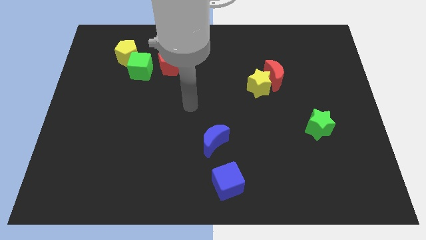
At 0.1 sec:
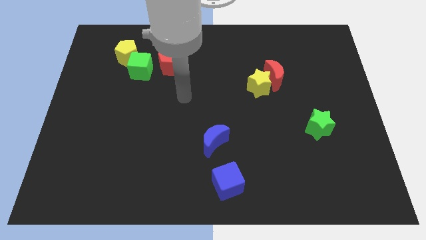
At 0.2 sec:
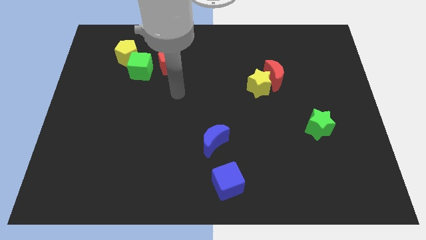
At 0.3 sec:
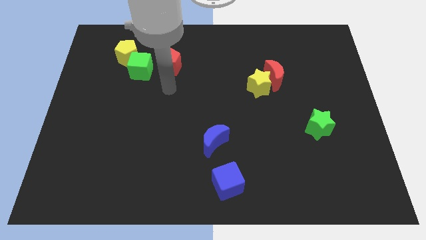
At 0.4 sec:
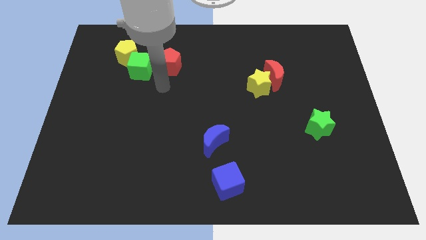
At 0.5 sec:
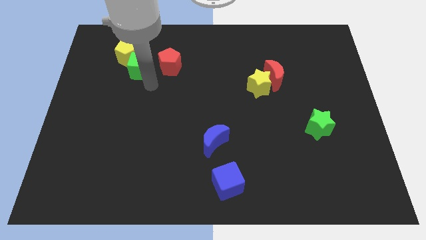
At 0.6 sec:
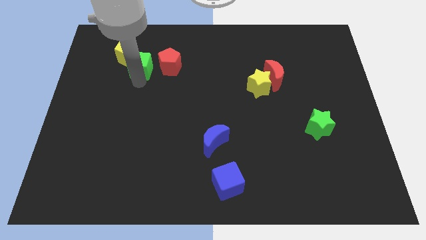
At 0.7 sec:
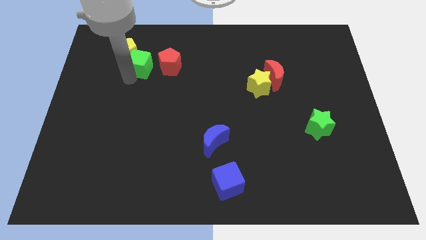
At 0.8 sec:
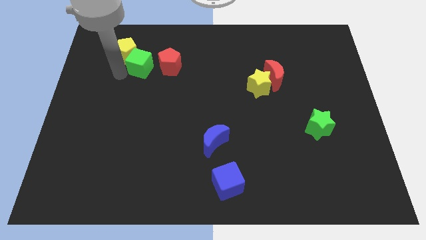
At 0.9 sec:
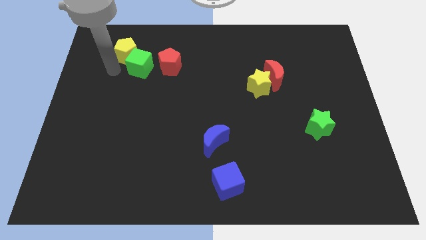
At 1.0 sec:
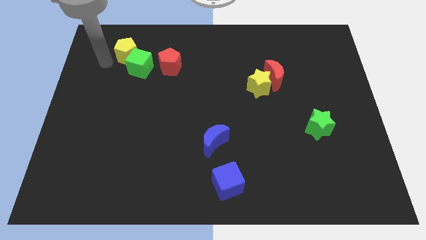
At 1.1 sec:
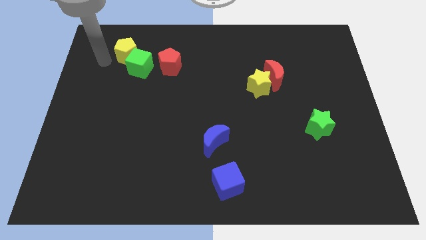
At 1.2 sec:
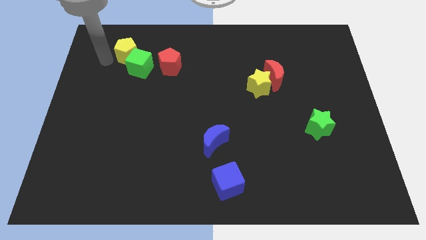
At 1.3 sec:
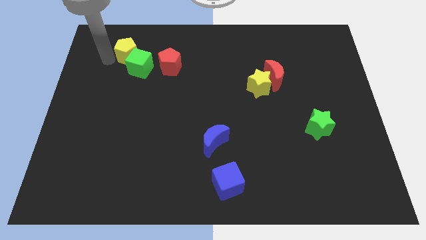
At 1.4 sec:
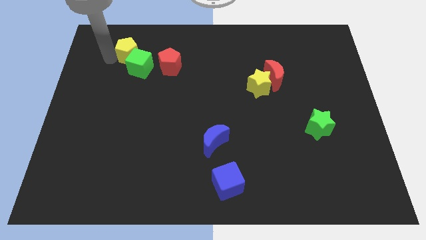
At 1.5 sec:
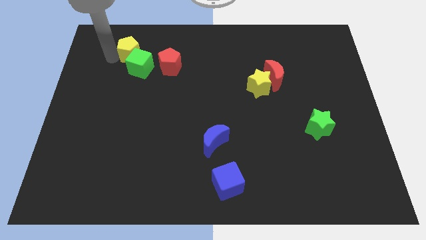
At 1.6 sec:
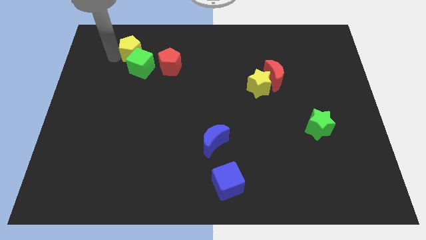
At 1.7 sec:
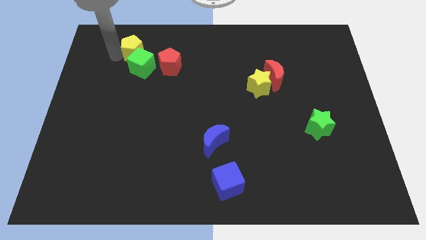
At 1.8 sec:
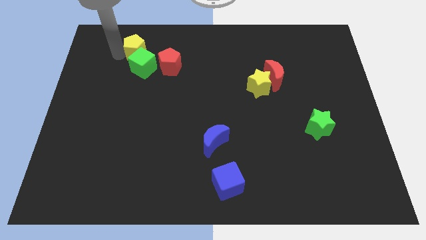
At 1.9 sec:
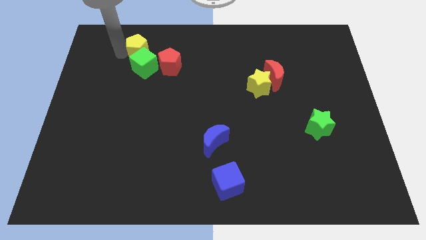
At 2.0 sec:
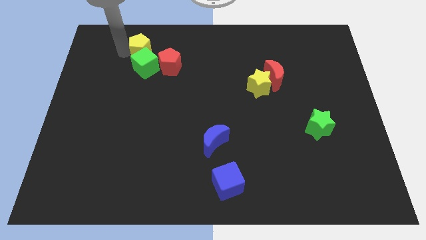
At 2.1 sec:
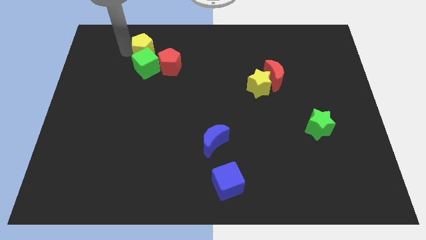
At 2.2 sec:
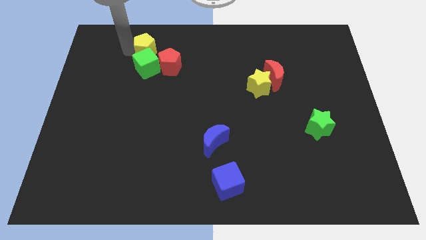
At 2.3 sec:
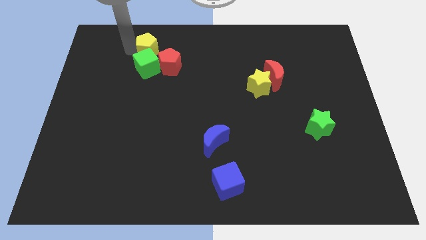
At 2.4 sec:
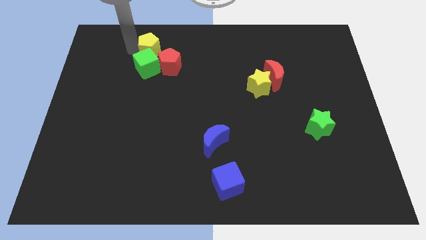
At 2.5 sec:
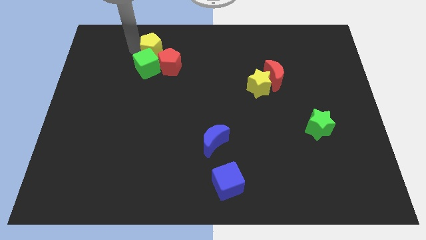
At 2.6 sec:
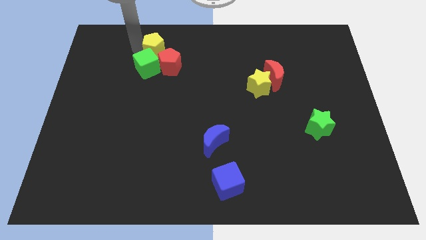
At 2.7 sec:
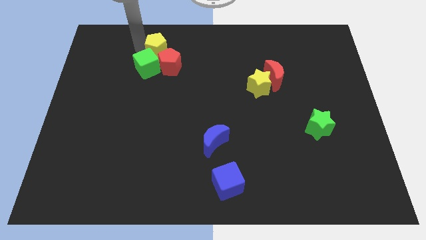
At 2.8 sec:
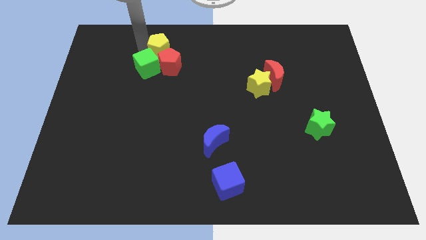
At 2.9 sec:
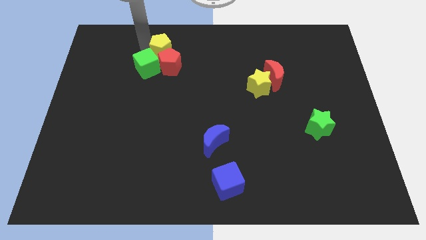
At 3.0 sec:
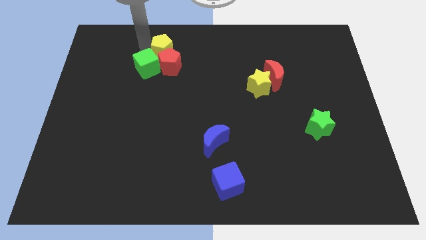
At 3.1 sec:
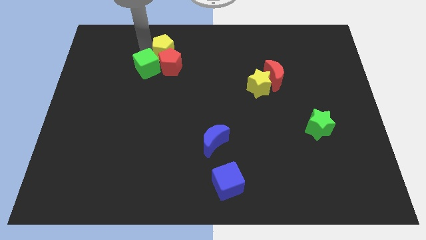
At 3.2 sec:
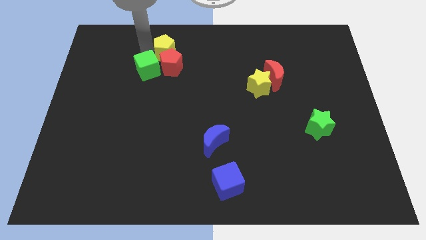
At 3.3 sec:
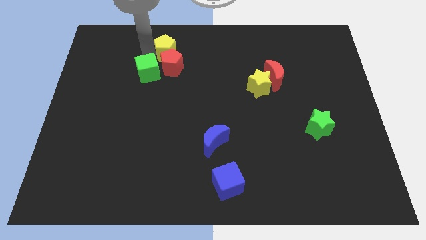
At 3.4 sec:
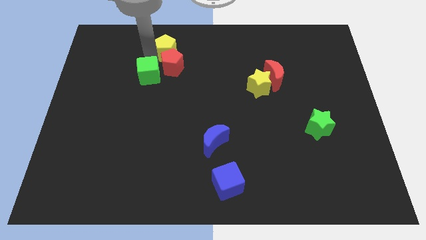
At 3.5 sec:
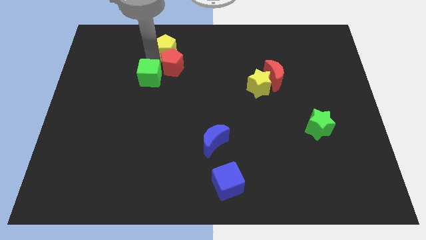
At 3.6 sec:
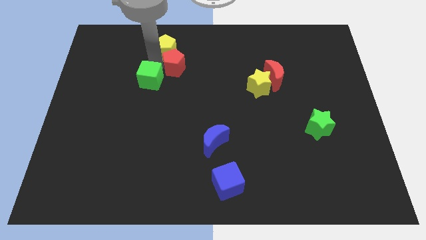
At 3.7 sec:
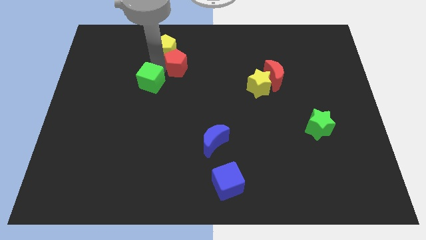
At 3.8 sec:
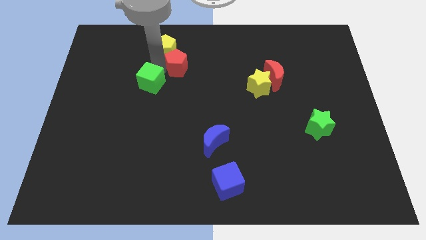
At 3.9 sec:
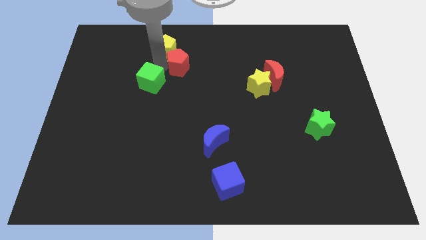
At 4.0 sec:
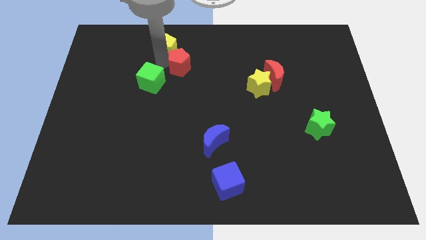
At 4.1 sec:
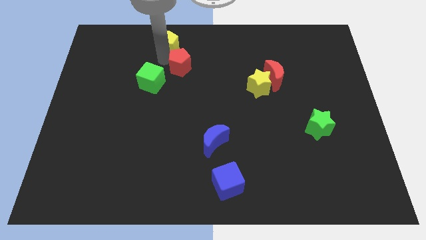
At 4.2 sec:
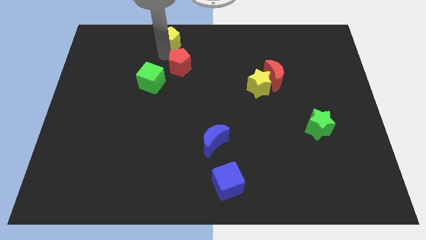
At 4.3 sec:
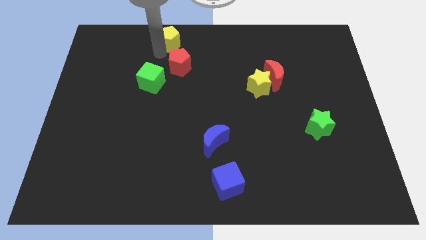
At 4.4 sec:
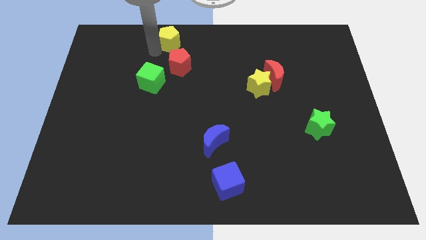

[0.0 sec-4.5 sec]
put the yellow pentagon to the top

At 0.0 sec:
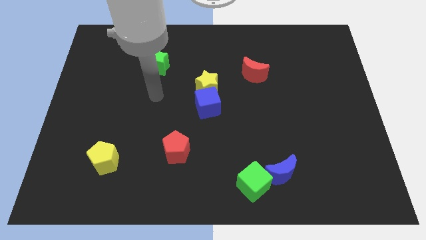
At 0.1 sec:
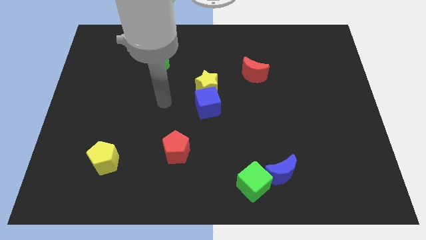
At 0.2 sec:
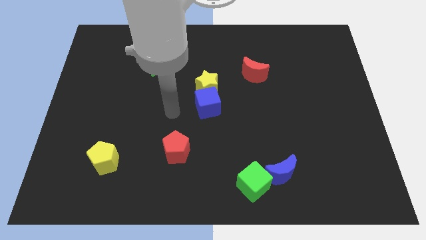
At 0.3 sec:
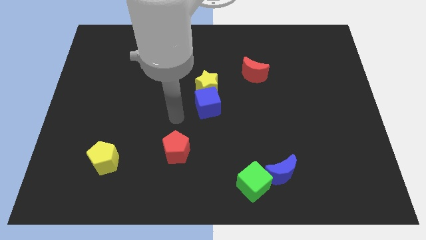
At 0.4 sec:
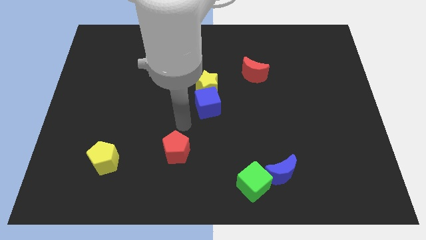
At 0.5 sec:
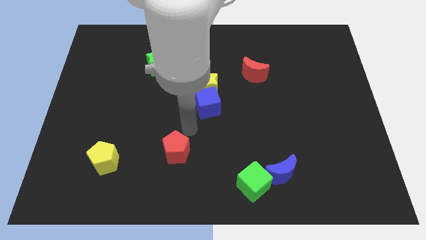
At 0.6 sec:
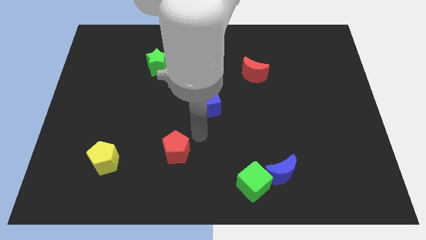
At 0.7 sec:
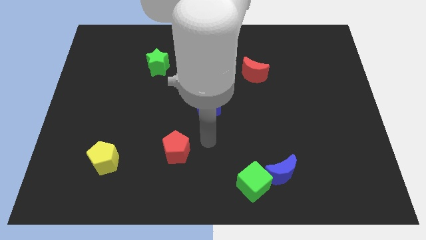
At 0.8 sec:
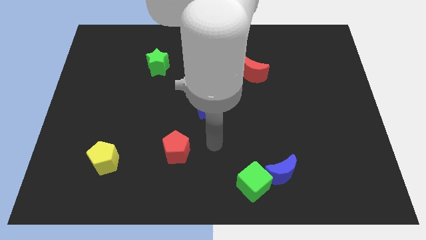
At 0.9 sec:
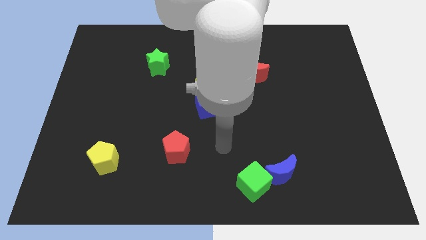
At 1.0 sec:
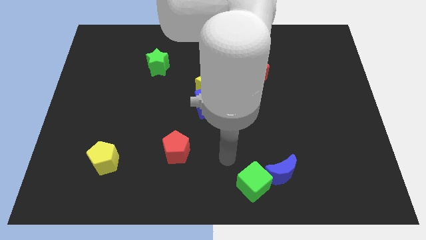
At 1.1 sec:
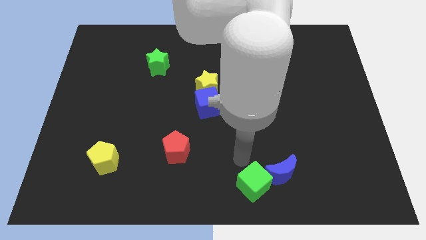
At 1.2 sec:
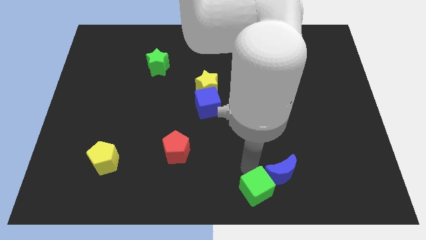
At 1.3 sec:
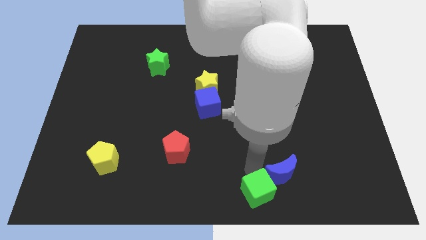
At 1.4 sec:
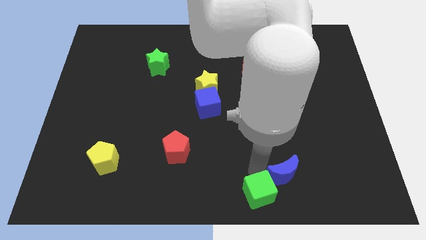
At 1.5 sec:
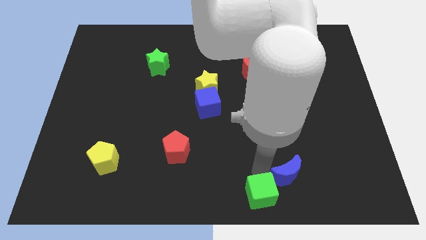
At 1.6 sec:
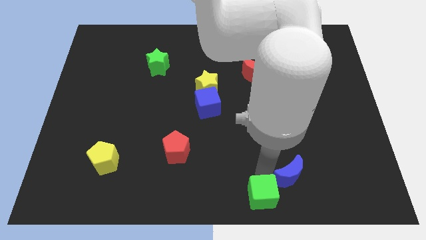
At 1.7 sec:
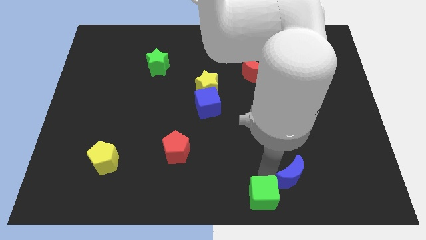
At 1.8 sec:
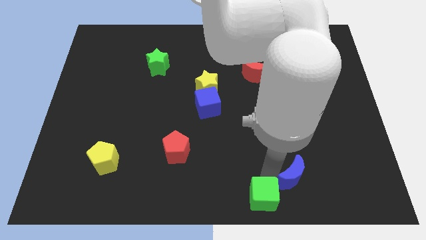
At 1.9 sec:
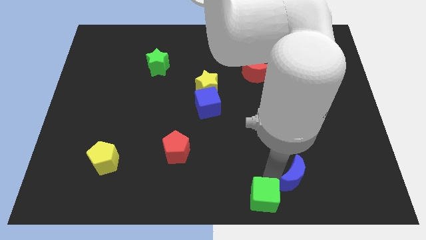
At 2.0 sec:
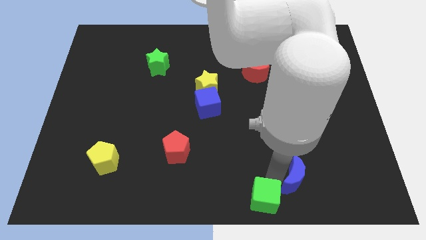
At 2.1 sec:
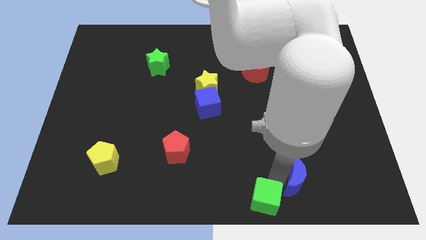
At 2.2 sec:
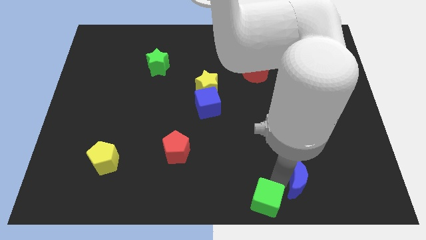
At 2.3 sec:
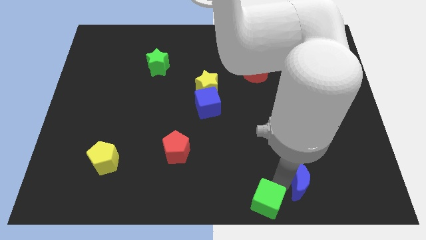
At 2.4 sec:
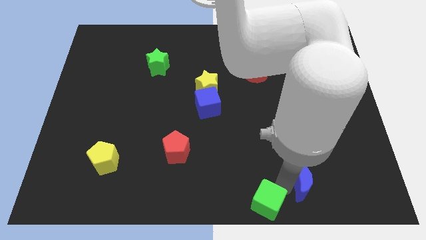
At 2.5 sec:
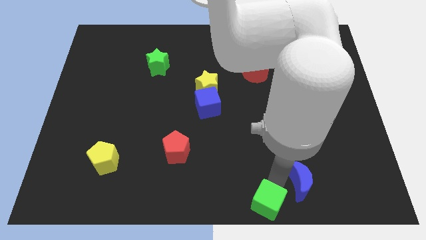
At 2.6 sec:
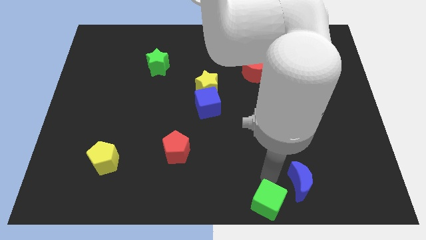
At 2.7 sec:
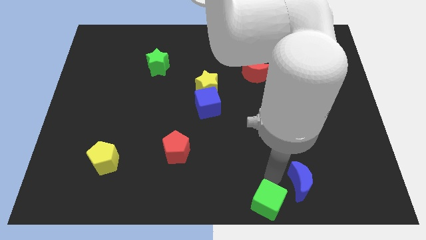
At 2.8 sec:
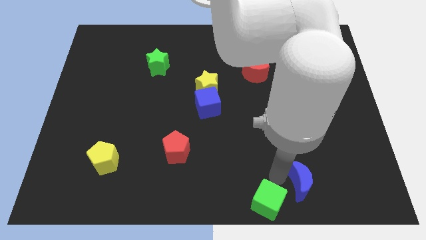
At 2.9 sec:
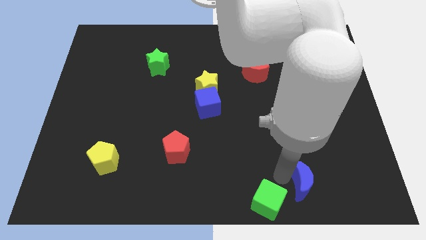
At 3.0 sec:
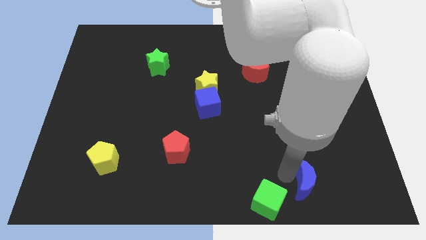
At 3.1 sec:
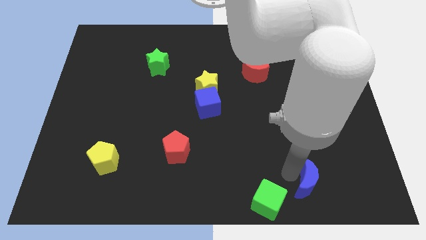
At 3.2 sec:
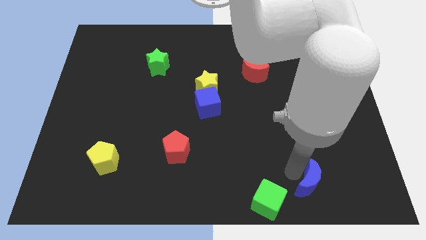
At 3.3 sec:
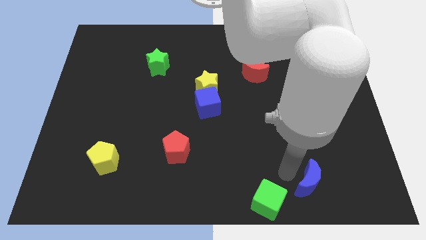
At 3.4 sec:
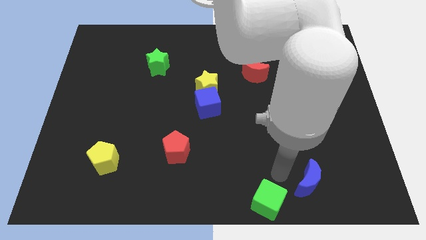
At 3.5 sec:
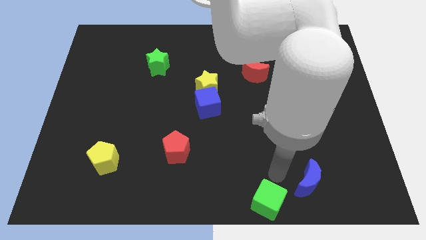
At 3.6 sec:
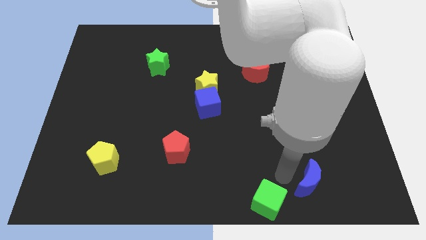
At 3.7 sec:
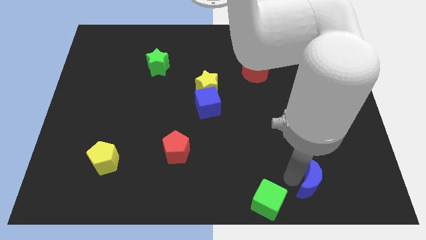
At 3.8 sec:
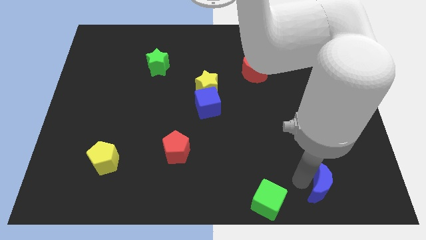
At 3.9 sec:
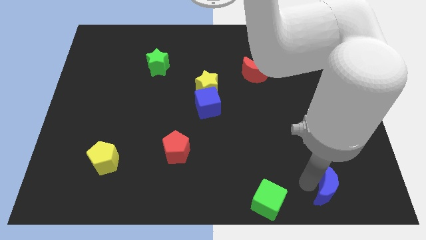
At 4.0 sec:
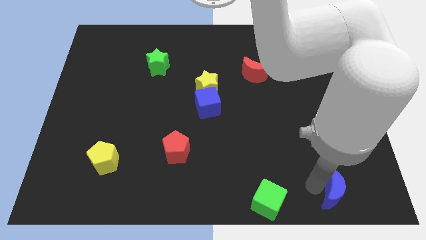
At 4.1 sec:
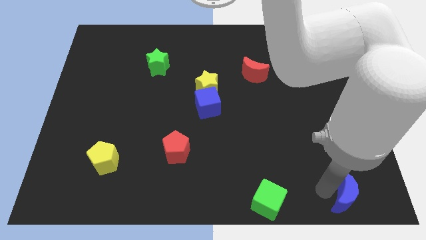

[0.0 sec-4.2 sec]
push the blue moon to the bottom right of the board
